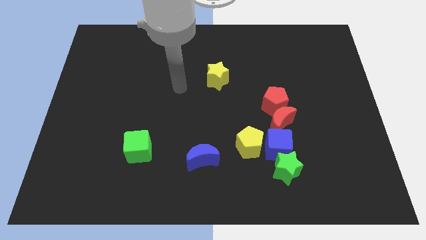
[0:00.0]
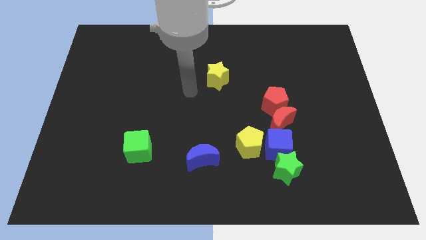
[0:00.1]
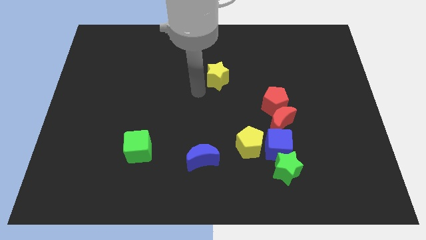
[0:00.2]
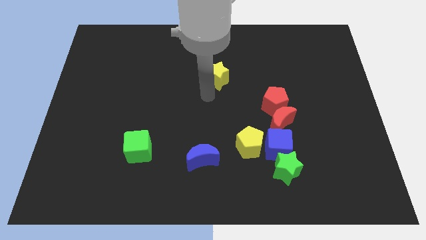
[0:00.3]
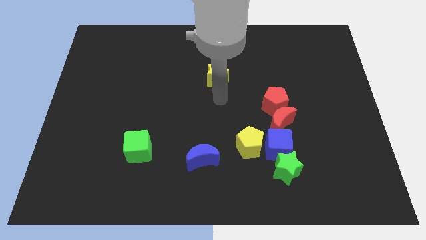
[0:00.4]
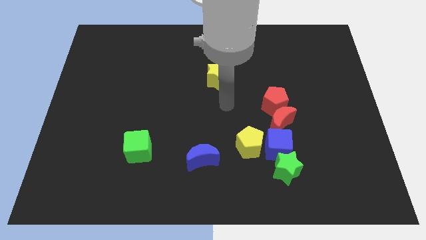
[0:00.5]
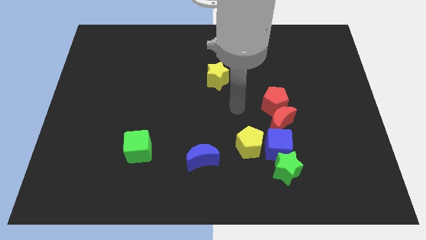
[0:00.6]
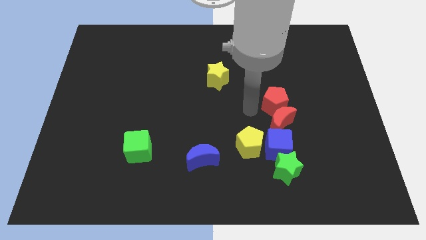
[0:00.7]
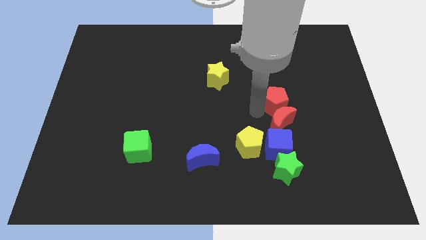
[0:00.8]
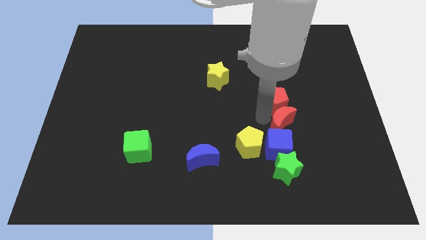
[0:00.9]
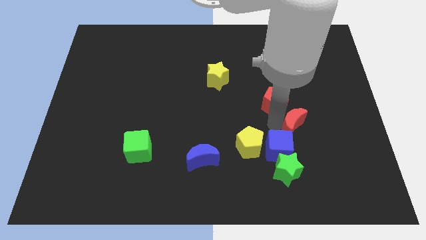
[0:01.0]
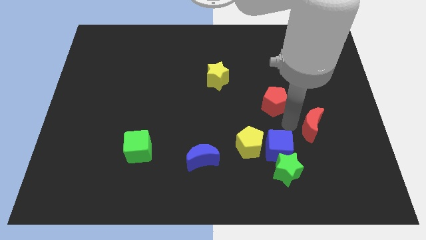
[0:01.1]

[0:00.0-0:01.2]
separate the red pentagon from the red moon

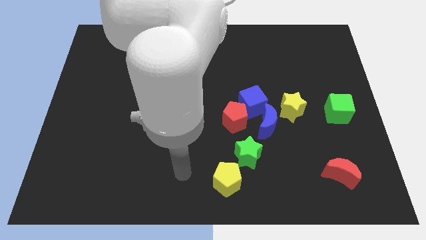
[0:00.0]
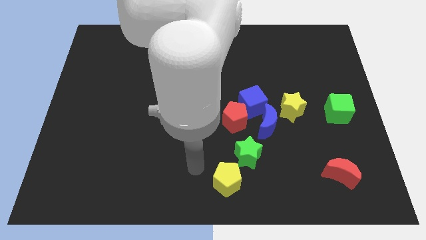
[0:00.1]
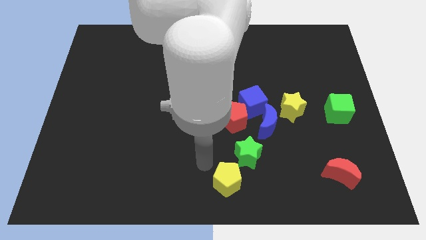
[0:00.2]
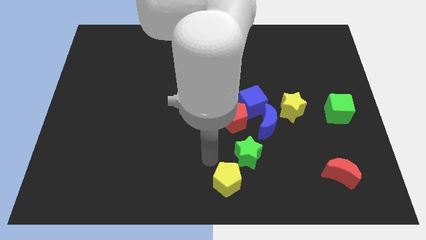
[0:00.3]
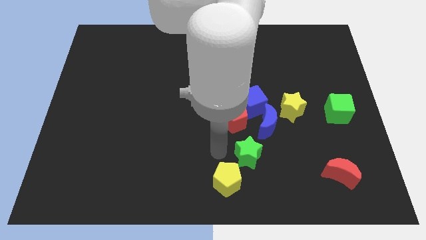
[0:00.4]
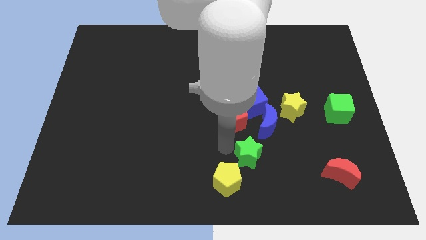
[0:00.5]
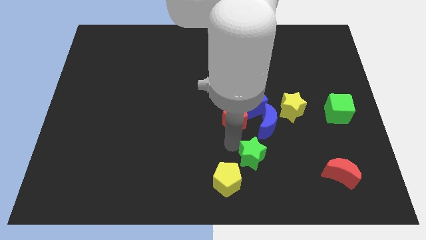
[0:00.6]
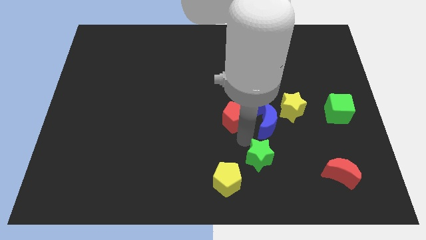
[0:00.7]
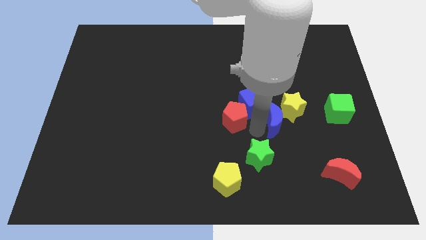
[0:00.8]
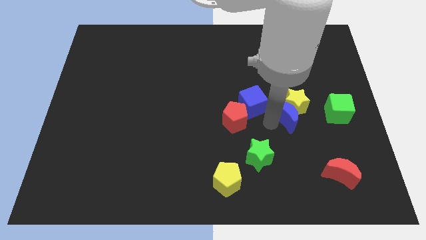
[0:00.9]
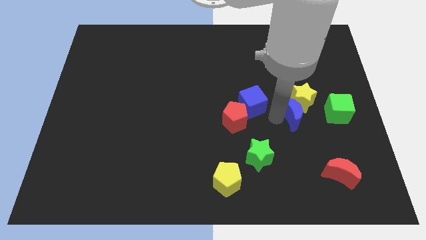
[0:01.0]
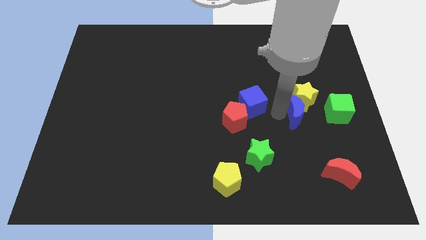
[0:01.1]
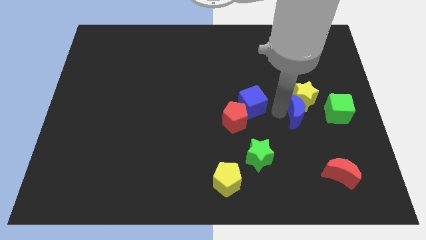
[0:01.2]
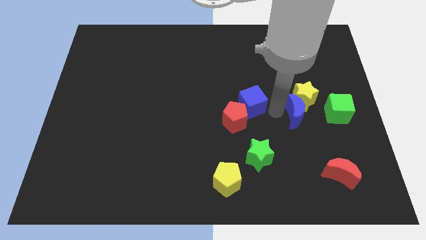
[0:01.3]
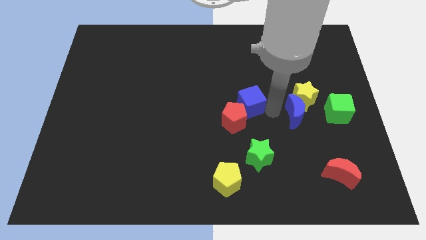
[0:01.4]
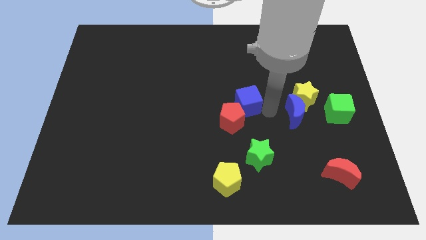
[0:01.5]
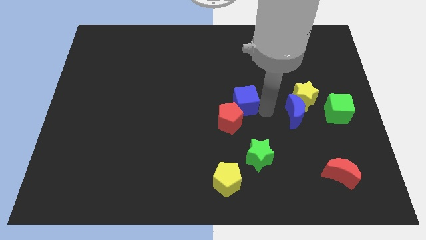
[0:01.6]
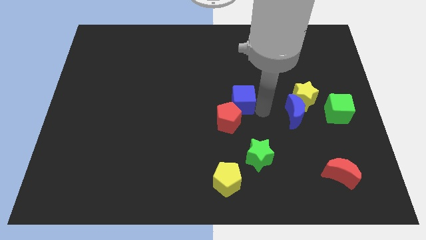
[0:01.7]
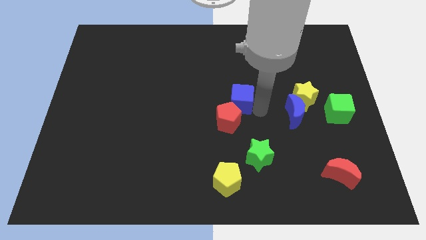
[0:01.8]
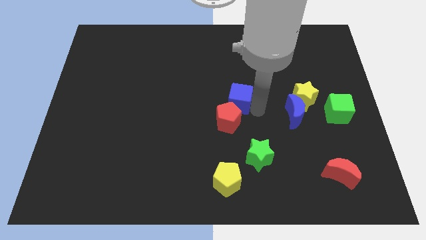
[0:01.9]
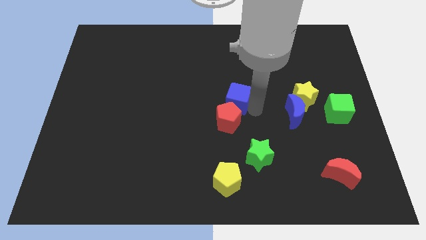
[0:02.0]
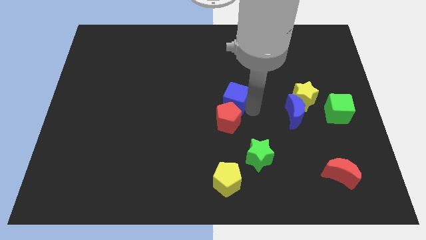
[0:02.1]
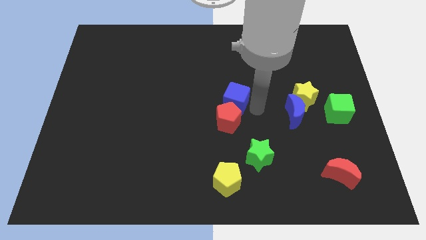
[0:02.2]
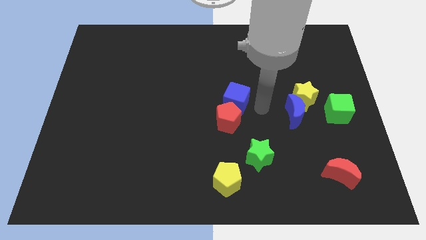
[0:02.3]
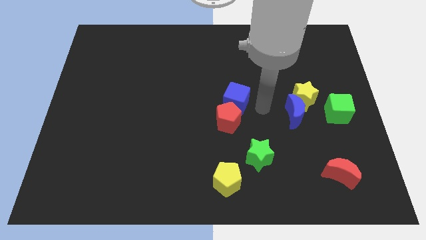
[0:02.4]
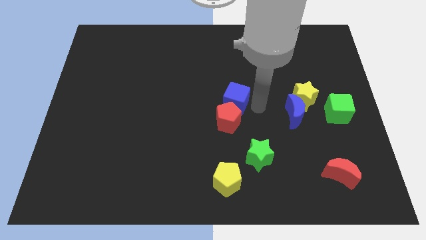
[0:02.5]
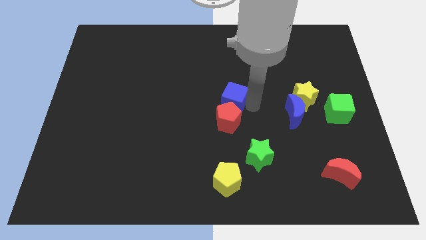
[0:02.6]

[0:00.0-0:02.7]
separate the blue cube from the red pentagon, blue moon, and yellow star

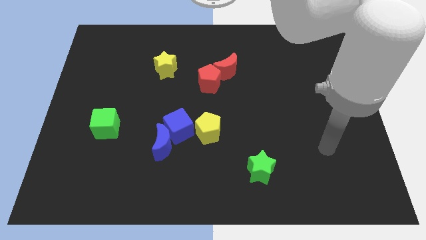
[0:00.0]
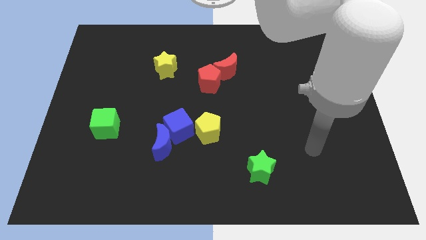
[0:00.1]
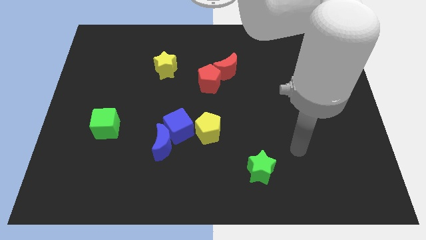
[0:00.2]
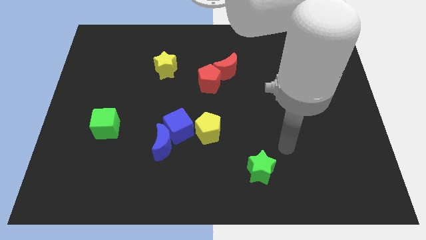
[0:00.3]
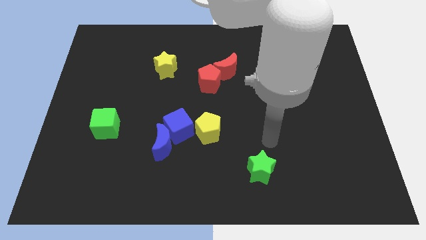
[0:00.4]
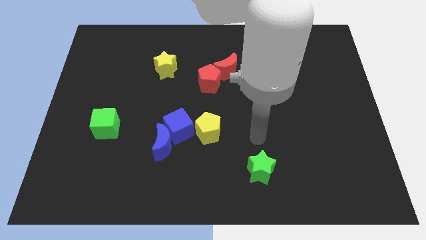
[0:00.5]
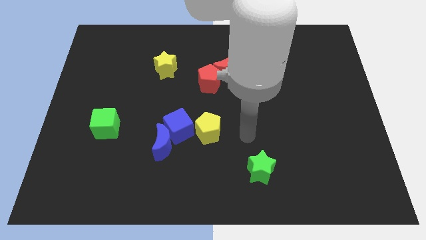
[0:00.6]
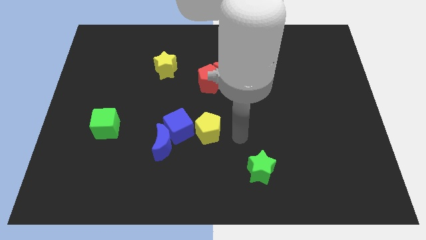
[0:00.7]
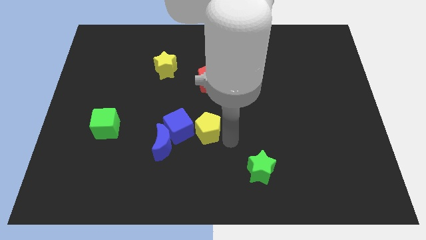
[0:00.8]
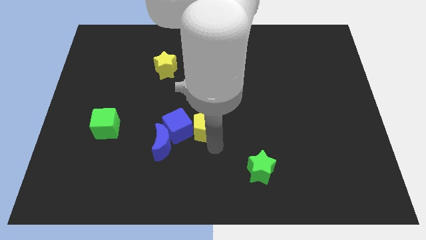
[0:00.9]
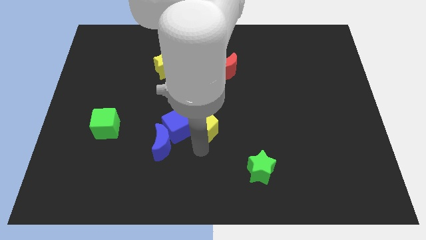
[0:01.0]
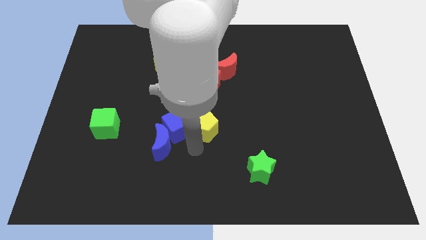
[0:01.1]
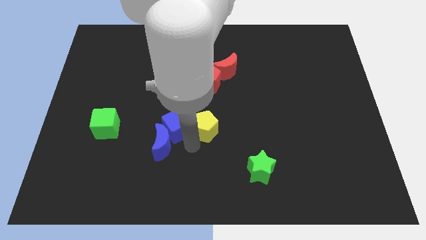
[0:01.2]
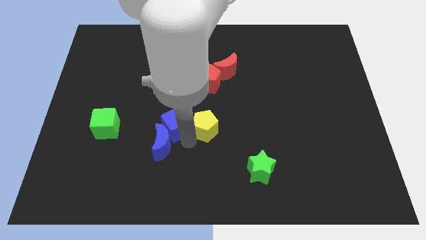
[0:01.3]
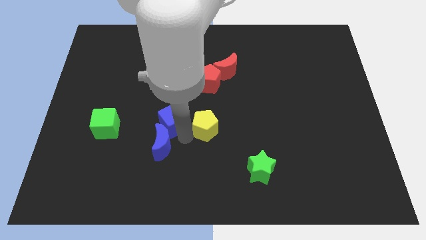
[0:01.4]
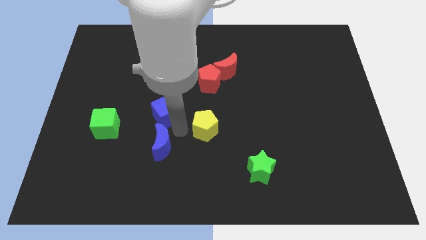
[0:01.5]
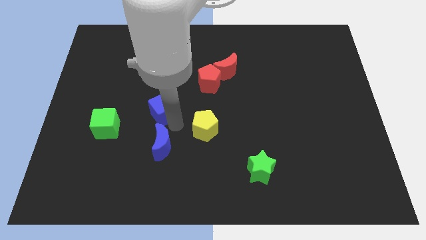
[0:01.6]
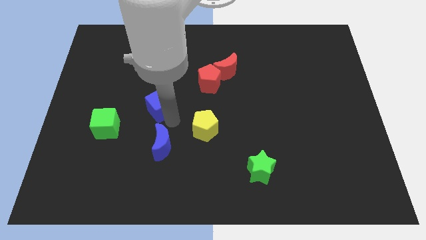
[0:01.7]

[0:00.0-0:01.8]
pull the blue cube apart from the blue moon and yellow pentagon

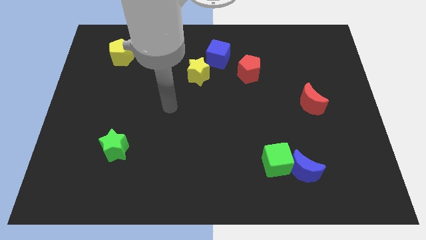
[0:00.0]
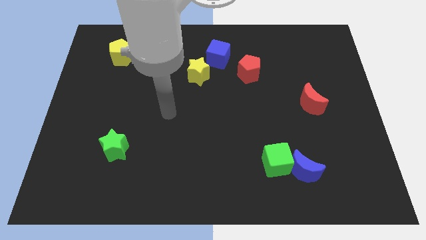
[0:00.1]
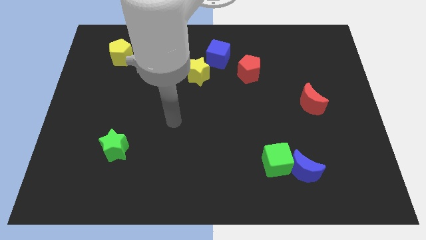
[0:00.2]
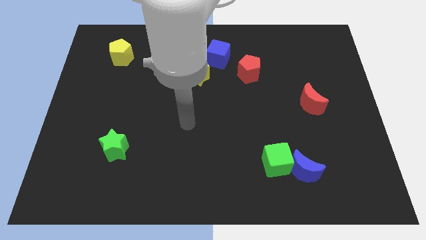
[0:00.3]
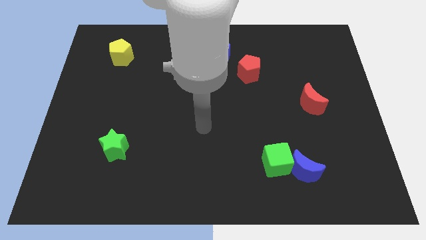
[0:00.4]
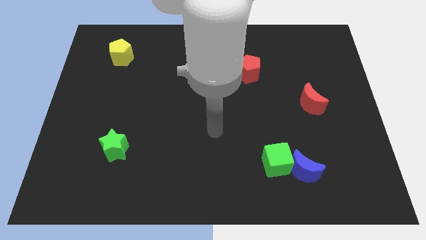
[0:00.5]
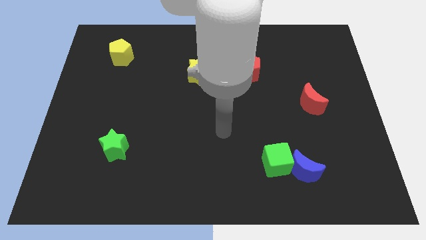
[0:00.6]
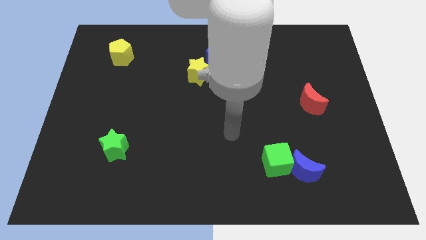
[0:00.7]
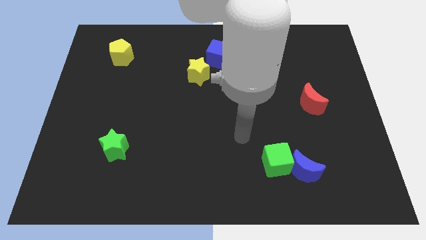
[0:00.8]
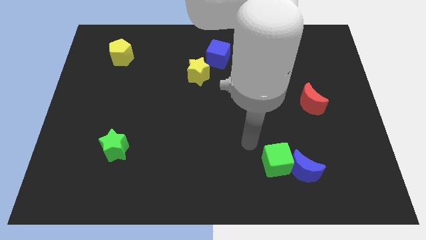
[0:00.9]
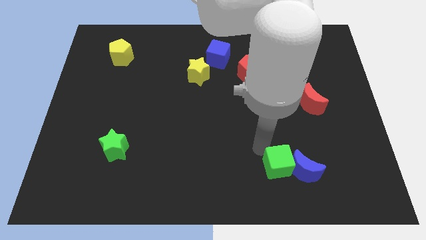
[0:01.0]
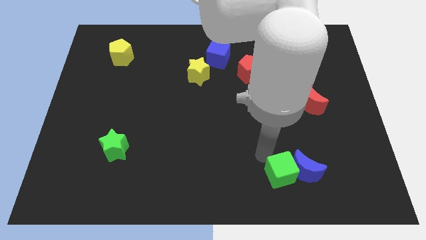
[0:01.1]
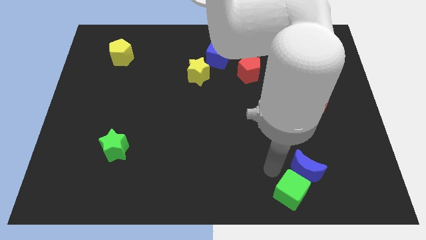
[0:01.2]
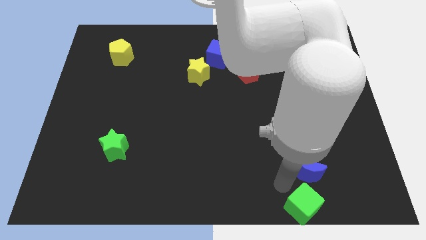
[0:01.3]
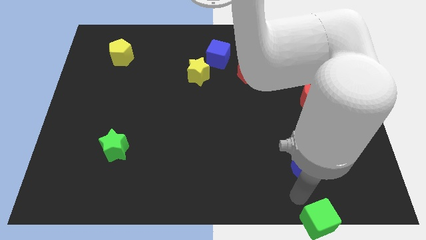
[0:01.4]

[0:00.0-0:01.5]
pull the blue moon apart from the green cube

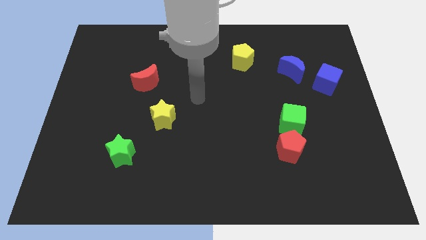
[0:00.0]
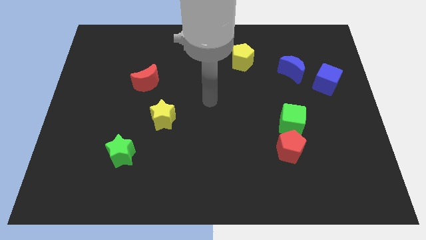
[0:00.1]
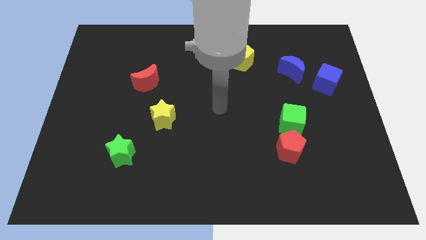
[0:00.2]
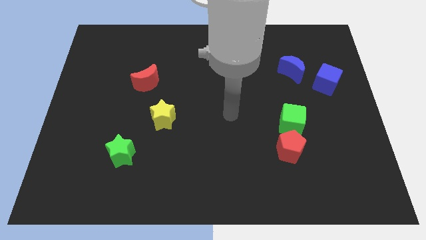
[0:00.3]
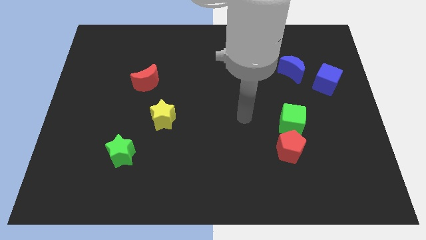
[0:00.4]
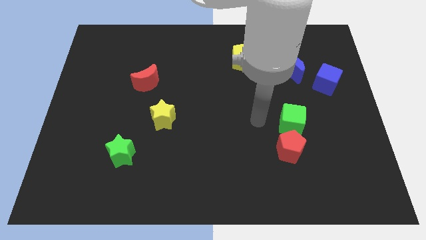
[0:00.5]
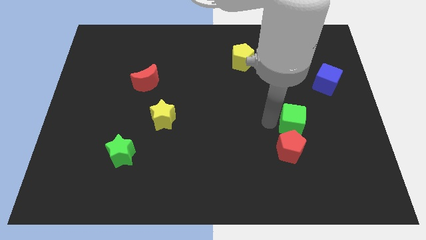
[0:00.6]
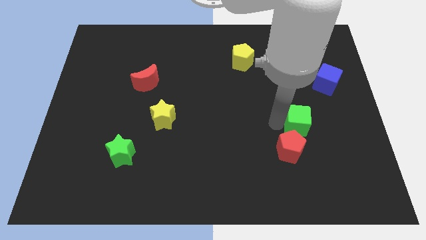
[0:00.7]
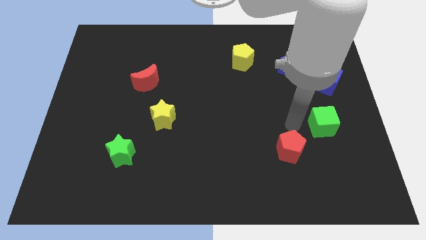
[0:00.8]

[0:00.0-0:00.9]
move the red pentagon away from the green cube

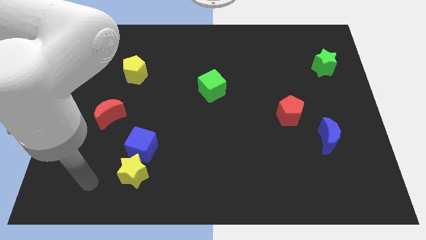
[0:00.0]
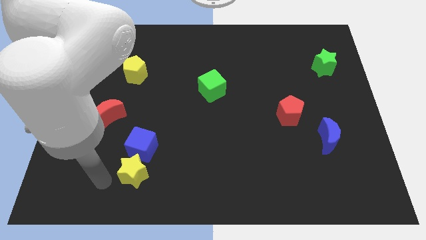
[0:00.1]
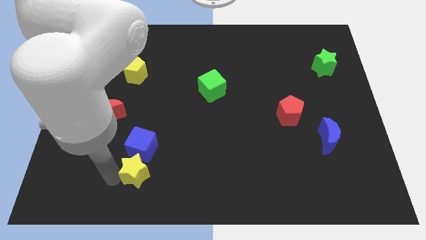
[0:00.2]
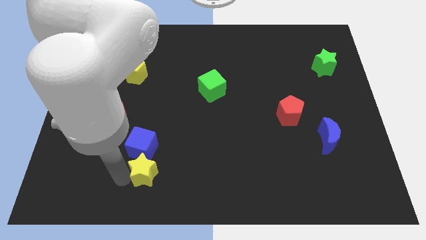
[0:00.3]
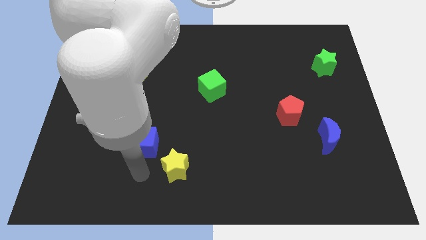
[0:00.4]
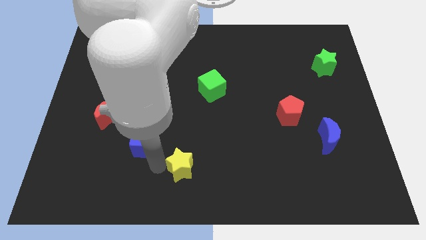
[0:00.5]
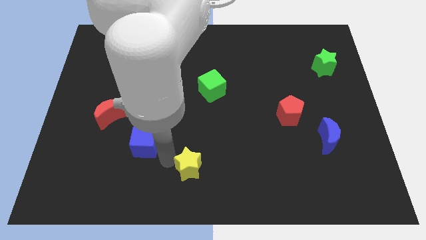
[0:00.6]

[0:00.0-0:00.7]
separate the blue cube from the yellow star

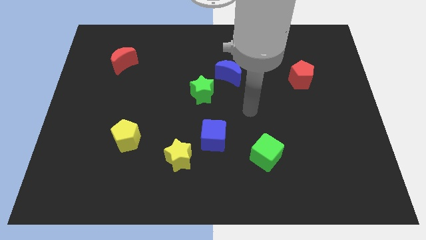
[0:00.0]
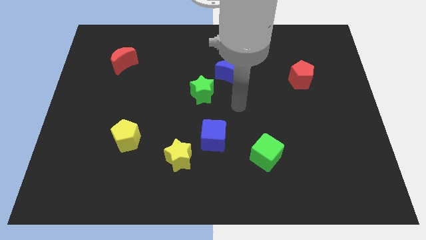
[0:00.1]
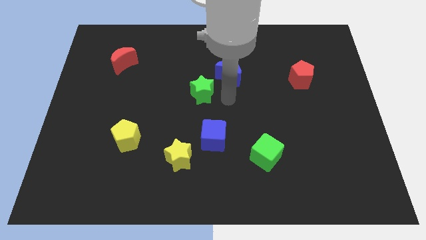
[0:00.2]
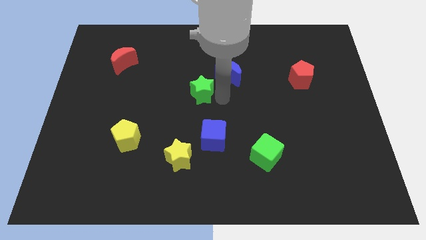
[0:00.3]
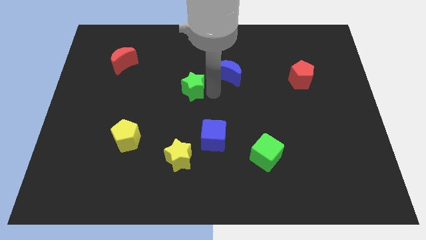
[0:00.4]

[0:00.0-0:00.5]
pull the blue moon apart from the green star

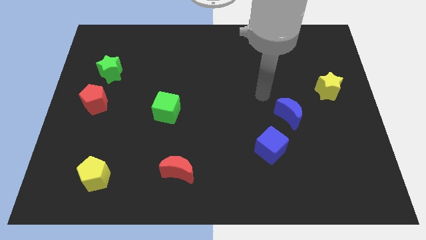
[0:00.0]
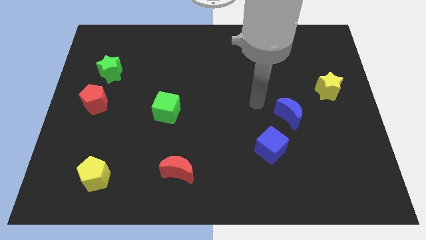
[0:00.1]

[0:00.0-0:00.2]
separate the blue moon from the blue cube

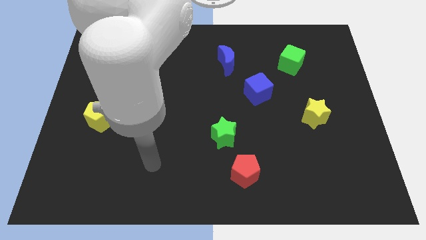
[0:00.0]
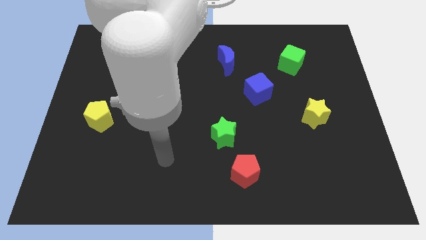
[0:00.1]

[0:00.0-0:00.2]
separate the red pentagon from the green star
